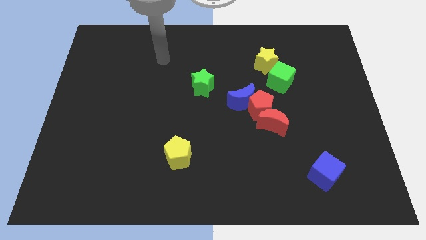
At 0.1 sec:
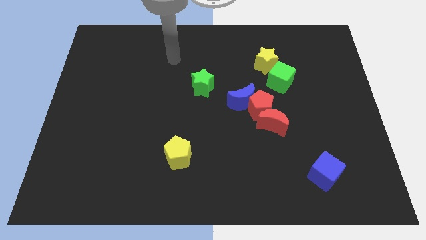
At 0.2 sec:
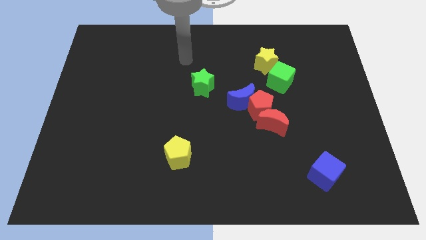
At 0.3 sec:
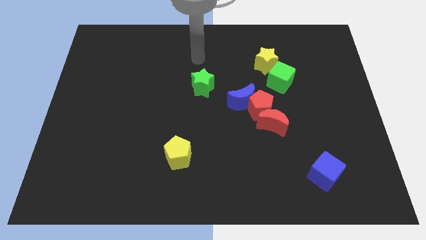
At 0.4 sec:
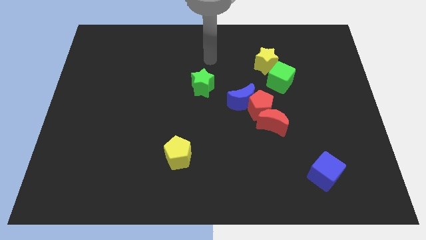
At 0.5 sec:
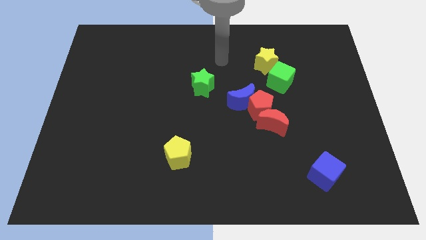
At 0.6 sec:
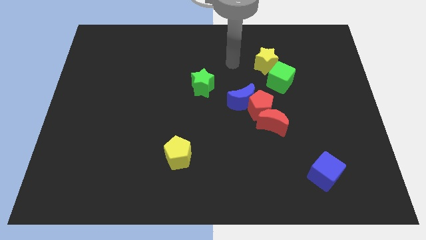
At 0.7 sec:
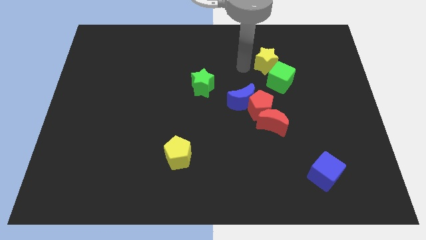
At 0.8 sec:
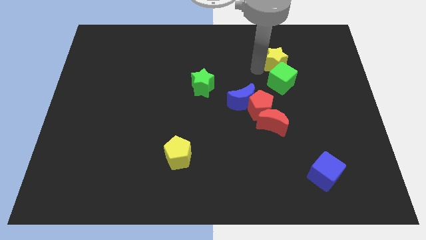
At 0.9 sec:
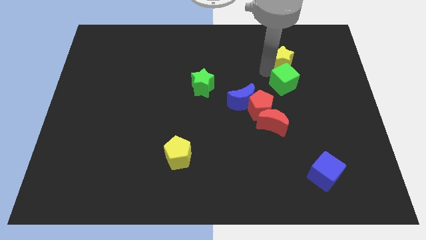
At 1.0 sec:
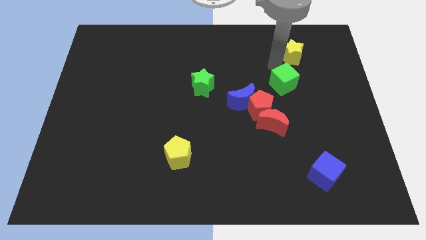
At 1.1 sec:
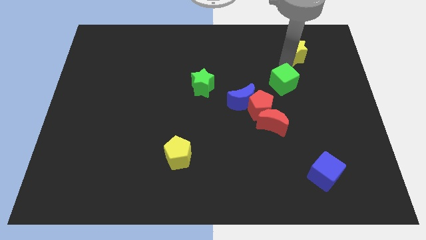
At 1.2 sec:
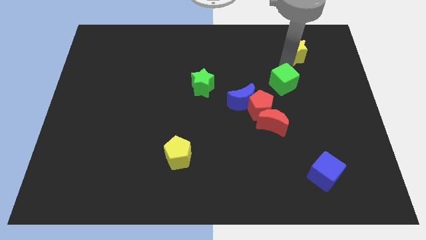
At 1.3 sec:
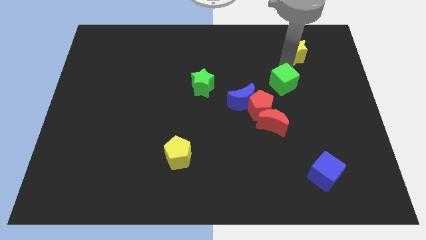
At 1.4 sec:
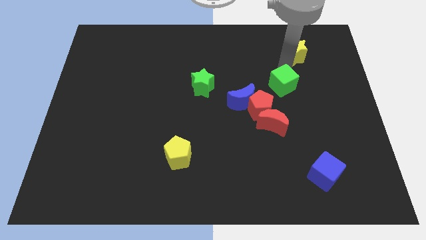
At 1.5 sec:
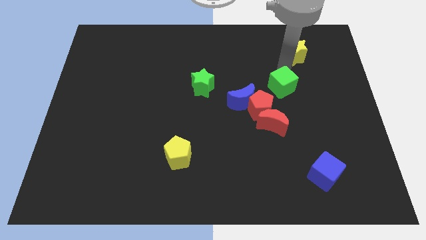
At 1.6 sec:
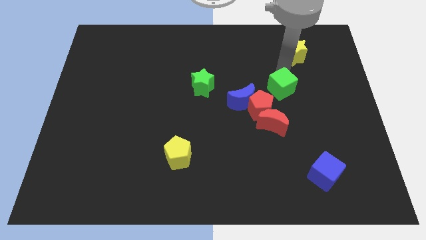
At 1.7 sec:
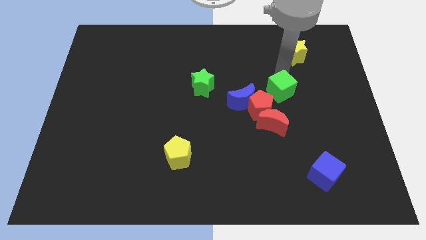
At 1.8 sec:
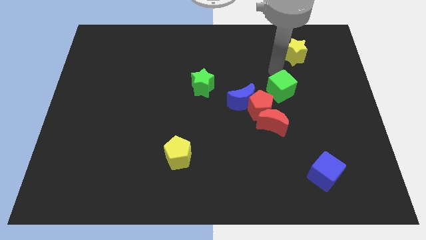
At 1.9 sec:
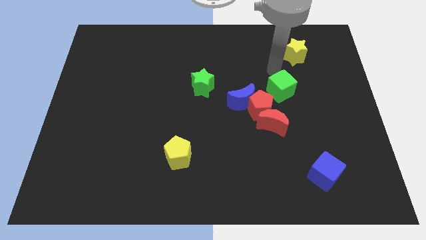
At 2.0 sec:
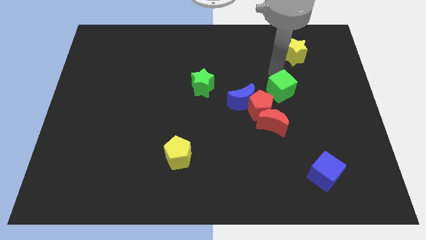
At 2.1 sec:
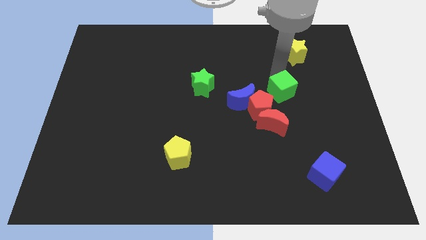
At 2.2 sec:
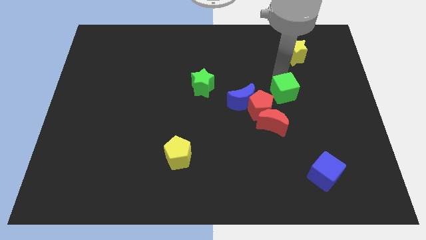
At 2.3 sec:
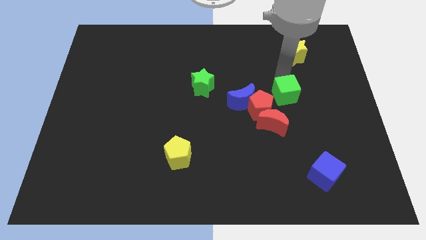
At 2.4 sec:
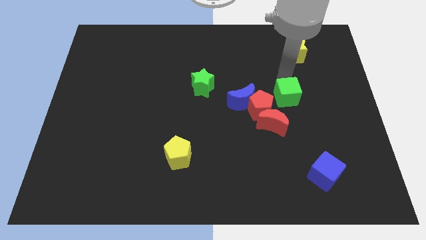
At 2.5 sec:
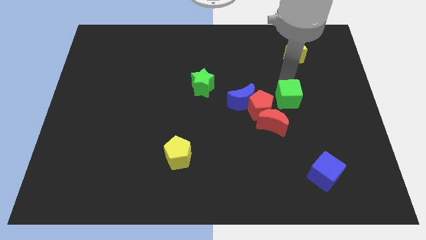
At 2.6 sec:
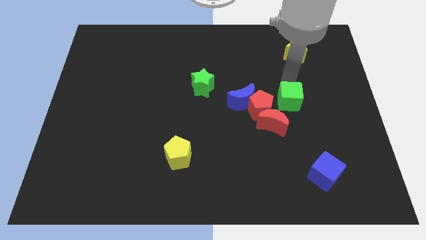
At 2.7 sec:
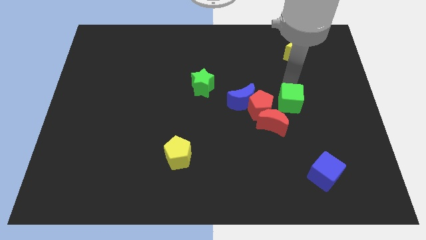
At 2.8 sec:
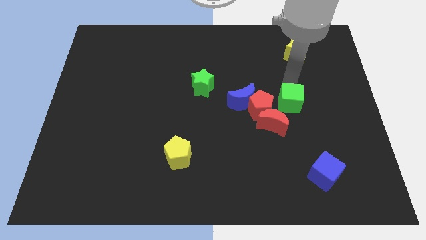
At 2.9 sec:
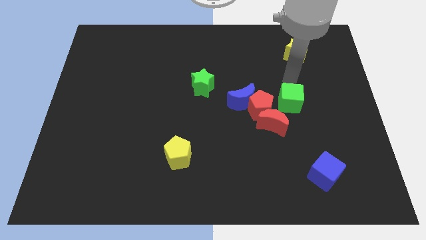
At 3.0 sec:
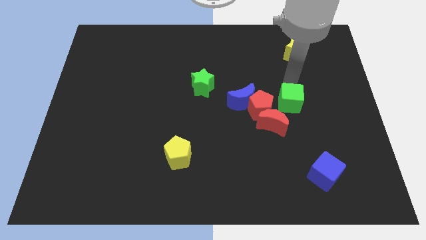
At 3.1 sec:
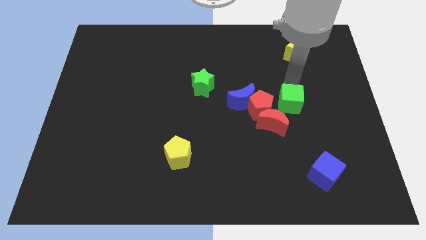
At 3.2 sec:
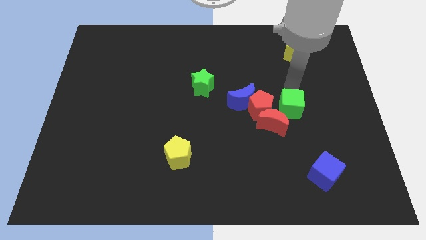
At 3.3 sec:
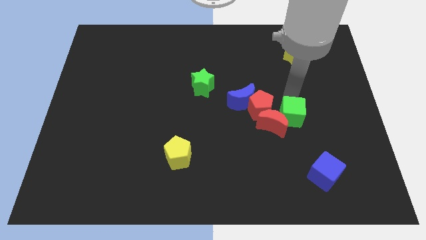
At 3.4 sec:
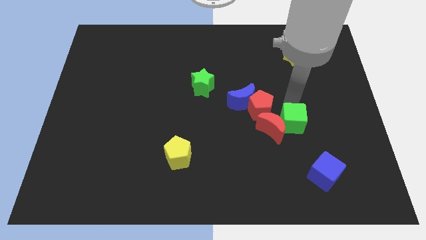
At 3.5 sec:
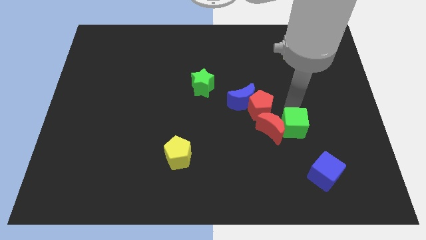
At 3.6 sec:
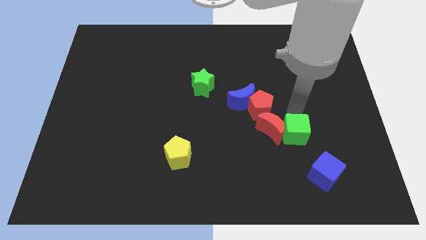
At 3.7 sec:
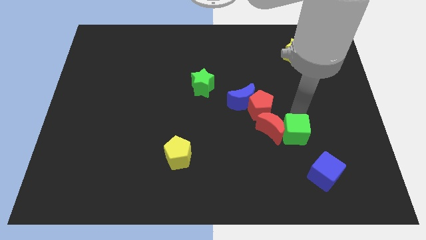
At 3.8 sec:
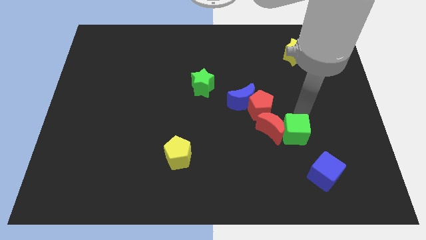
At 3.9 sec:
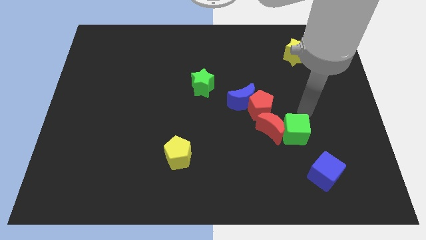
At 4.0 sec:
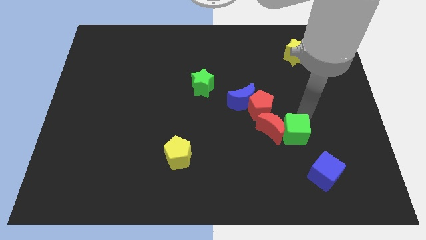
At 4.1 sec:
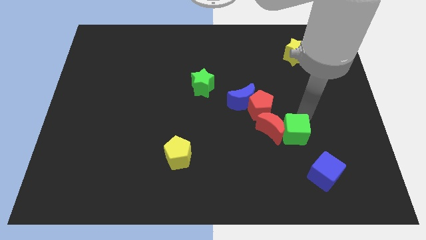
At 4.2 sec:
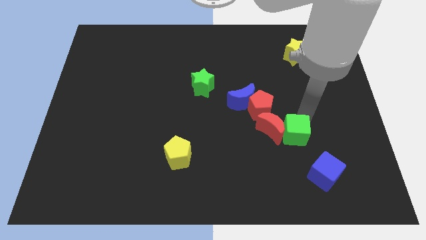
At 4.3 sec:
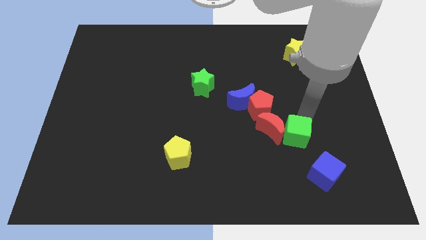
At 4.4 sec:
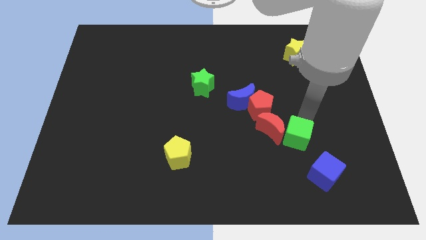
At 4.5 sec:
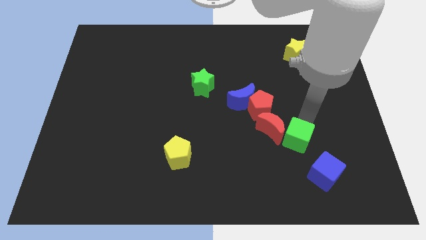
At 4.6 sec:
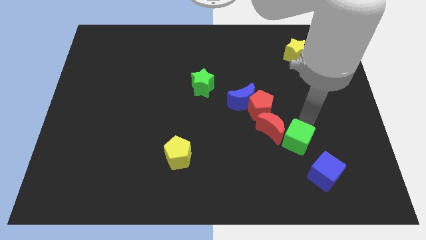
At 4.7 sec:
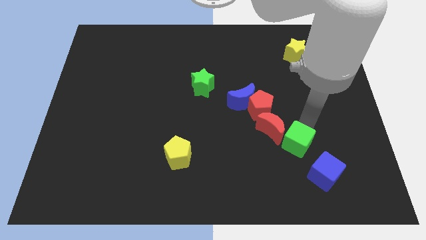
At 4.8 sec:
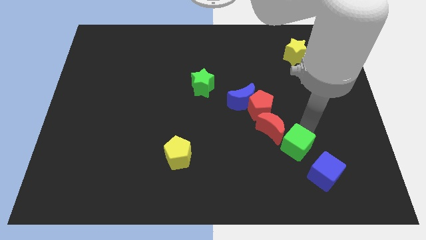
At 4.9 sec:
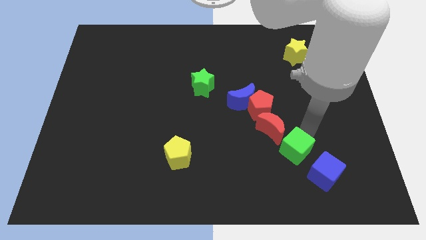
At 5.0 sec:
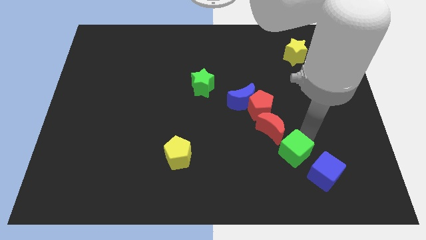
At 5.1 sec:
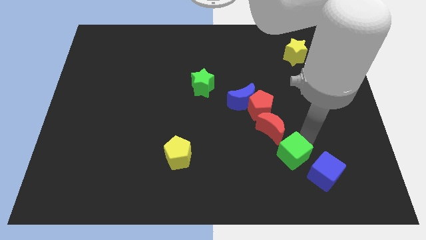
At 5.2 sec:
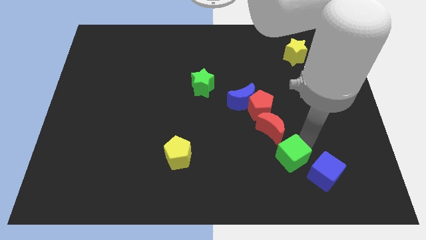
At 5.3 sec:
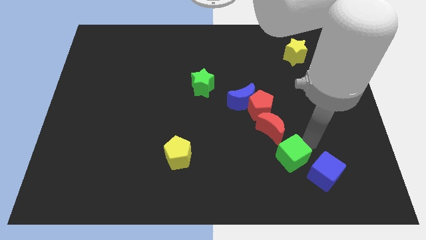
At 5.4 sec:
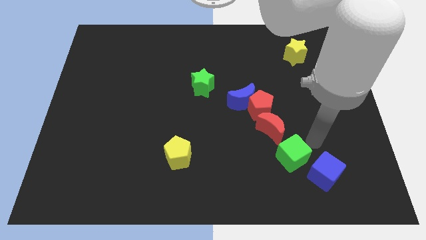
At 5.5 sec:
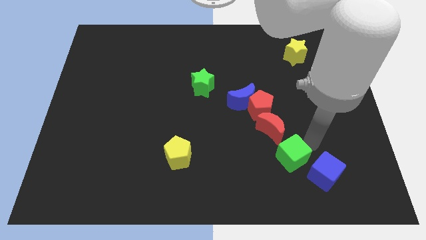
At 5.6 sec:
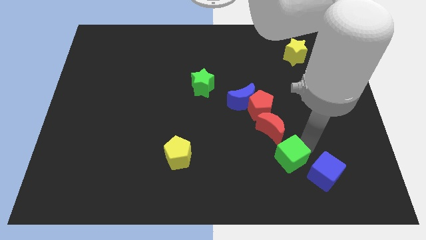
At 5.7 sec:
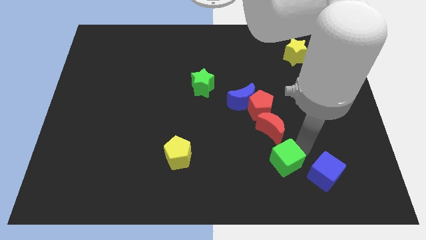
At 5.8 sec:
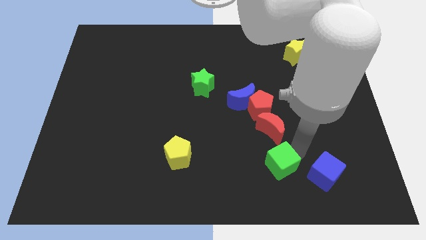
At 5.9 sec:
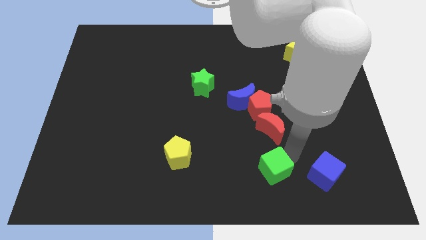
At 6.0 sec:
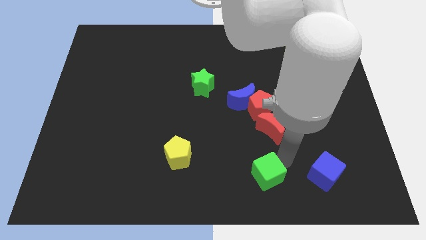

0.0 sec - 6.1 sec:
put the green cube to the bottom

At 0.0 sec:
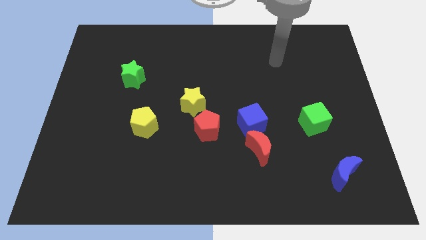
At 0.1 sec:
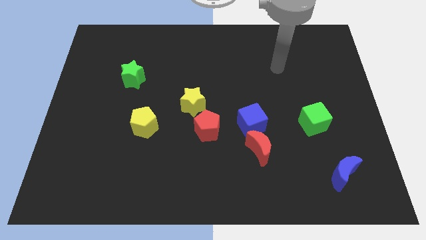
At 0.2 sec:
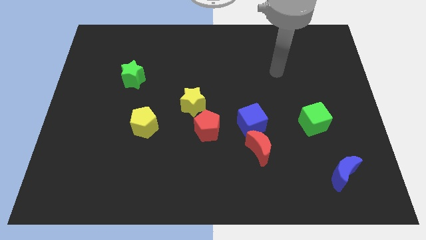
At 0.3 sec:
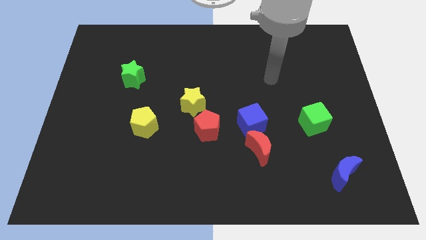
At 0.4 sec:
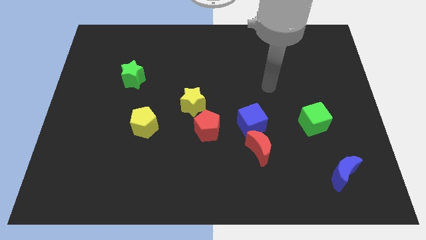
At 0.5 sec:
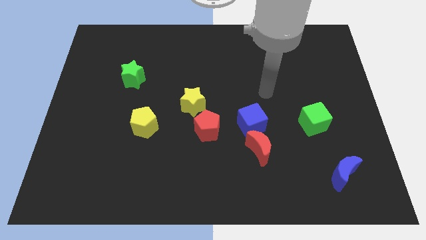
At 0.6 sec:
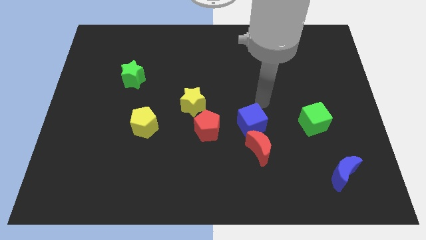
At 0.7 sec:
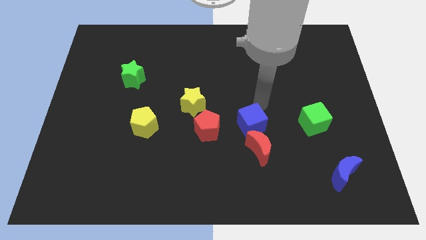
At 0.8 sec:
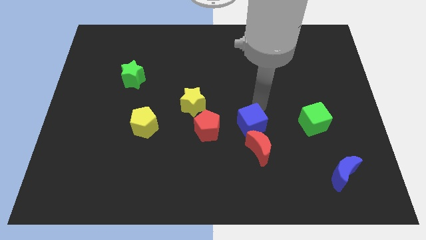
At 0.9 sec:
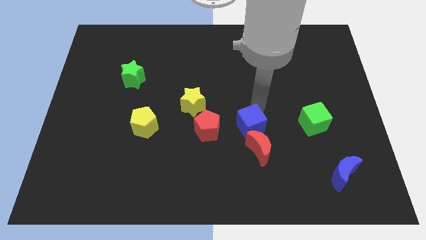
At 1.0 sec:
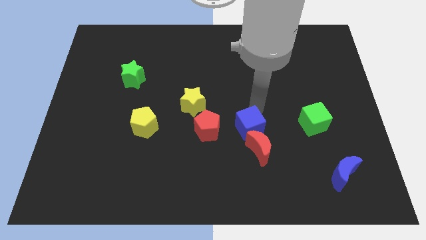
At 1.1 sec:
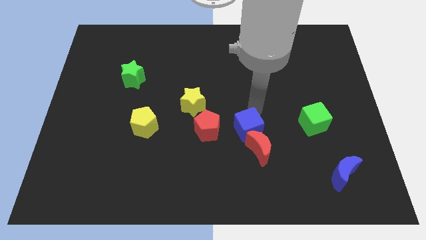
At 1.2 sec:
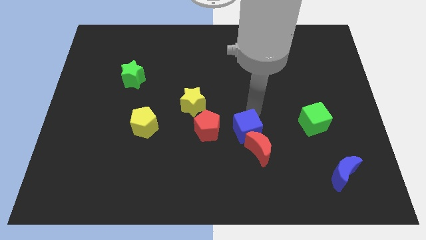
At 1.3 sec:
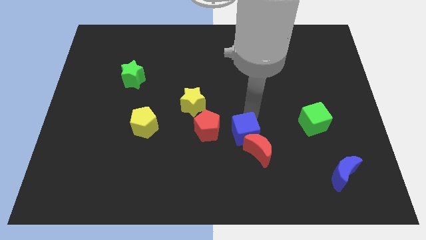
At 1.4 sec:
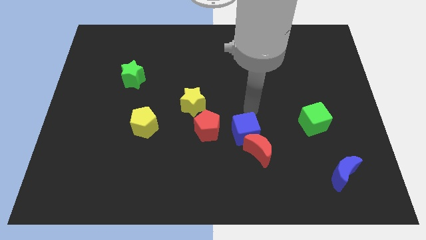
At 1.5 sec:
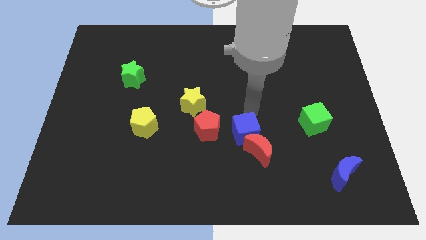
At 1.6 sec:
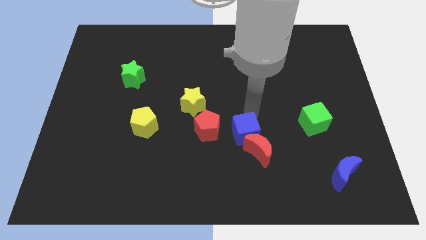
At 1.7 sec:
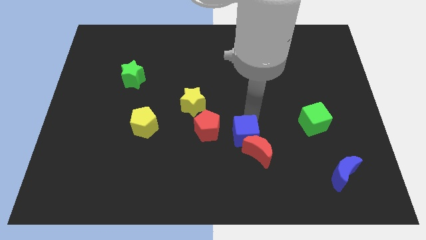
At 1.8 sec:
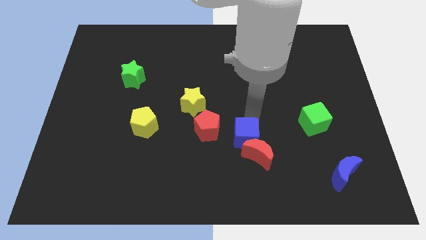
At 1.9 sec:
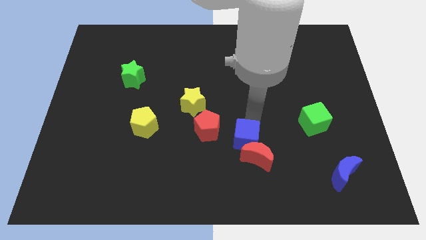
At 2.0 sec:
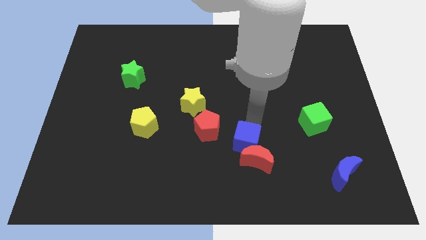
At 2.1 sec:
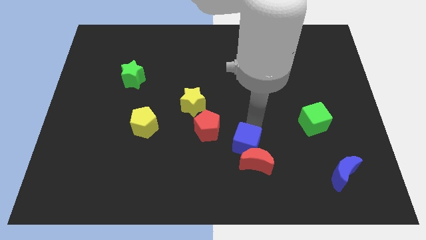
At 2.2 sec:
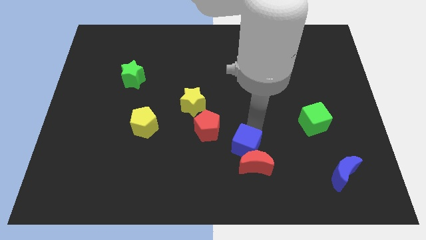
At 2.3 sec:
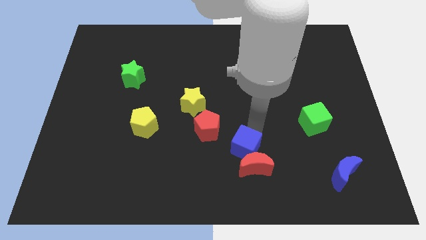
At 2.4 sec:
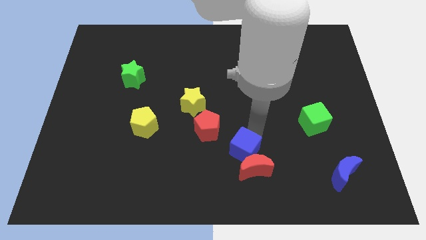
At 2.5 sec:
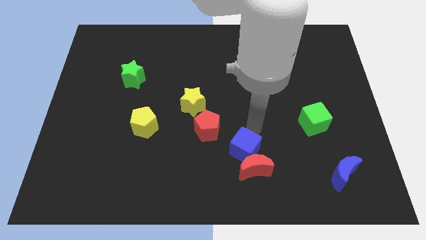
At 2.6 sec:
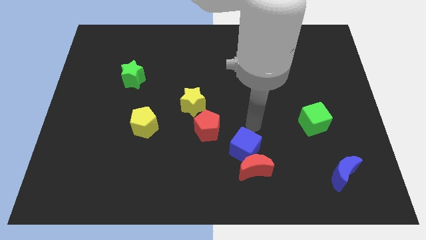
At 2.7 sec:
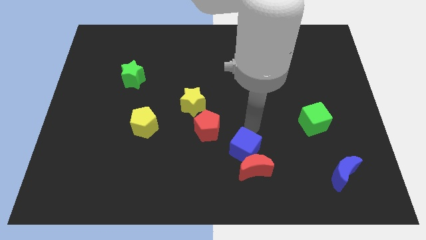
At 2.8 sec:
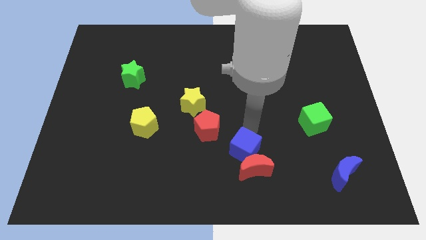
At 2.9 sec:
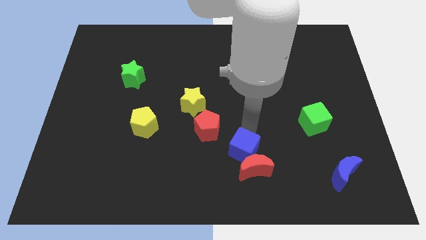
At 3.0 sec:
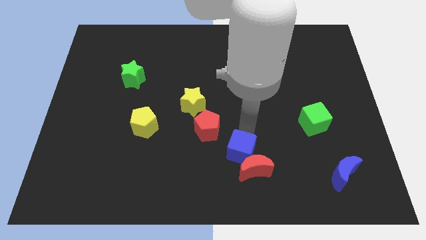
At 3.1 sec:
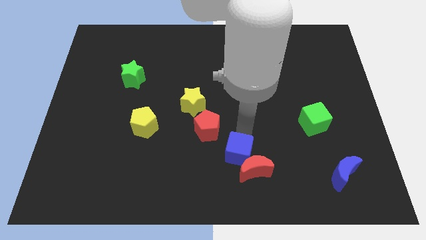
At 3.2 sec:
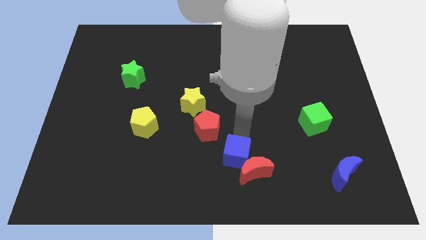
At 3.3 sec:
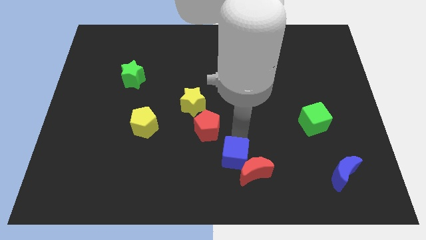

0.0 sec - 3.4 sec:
put the blue cube to the bottom side
